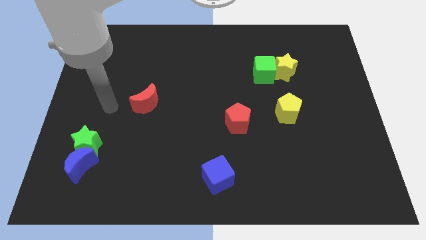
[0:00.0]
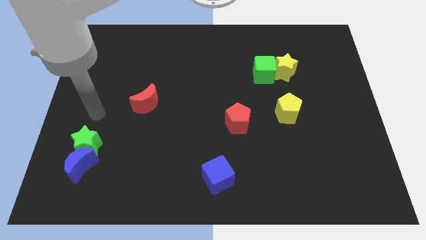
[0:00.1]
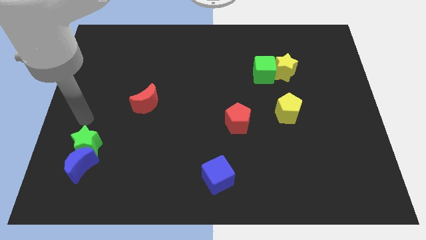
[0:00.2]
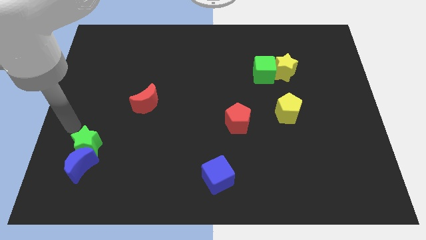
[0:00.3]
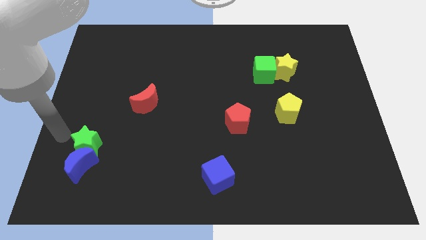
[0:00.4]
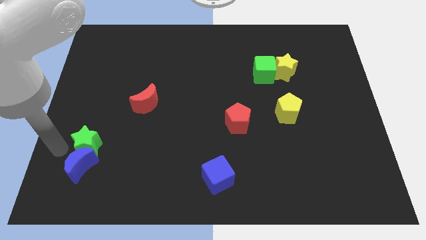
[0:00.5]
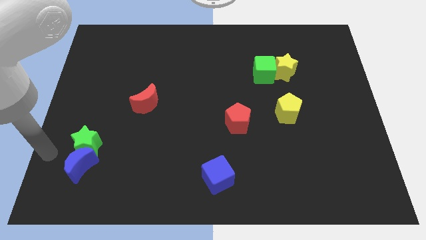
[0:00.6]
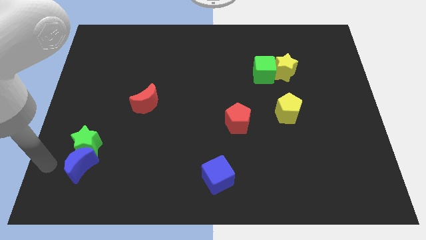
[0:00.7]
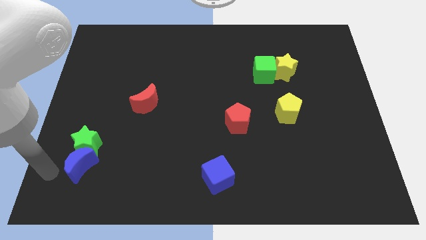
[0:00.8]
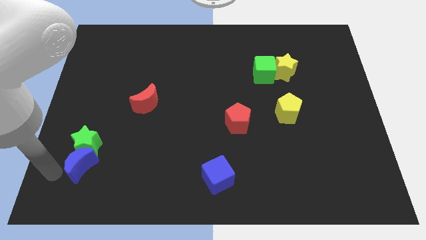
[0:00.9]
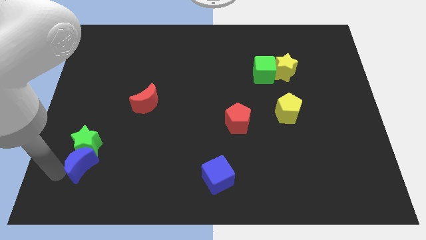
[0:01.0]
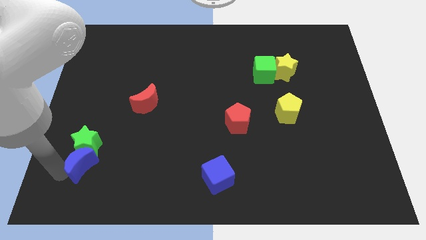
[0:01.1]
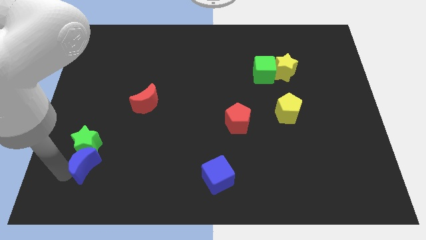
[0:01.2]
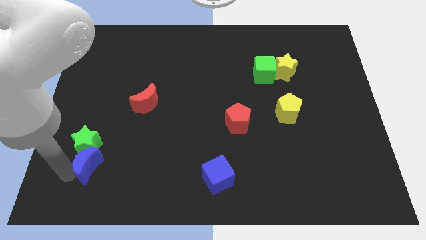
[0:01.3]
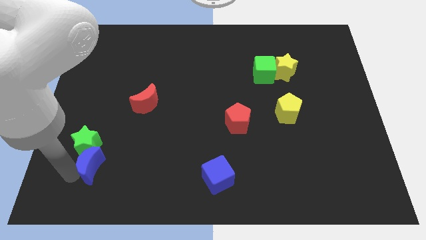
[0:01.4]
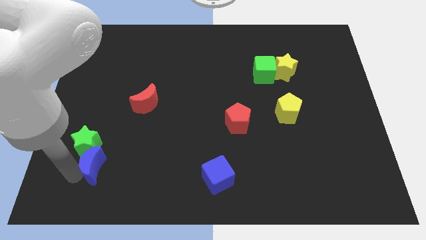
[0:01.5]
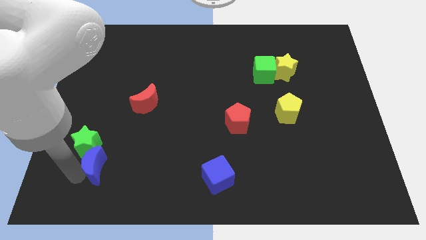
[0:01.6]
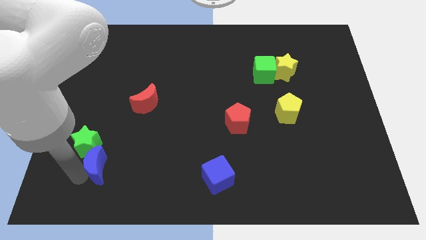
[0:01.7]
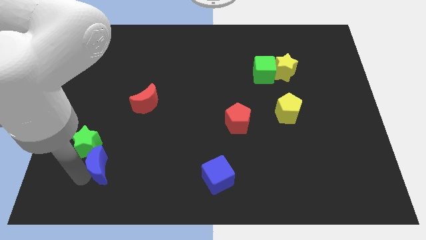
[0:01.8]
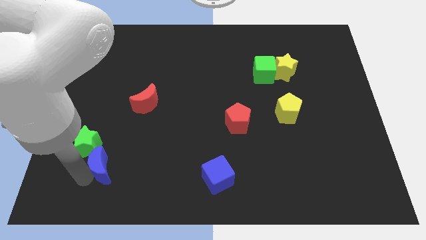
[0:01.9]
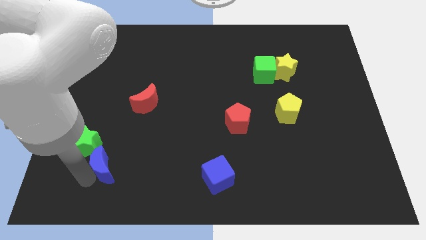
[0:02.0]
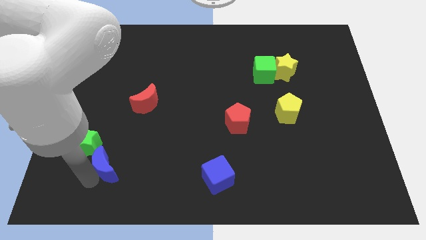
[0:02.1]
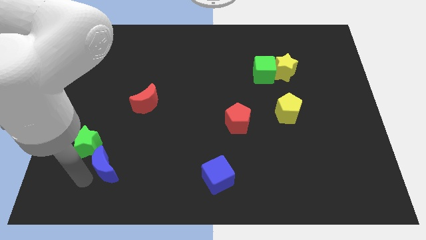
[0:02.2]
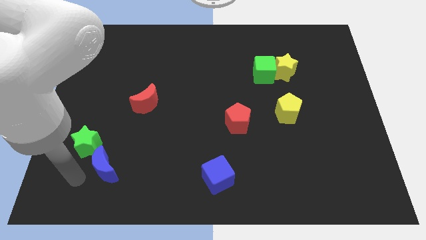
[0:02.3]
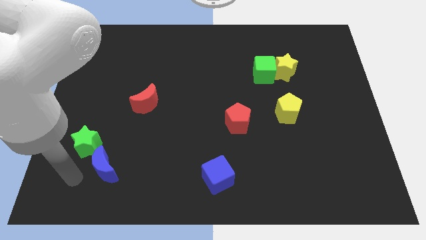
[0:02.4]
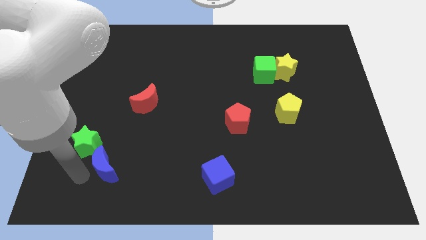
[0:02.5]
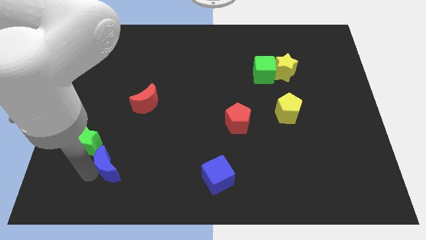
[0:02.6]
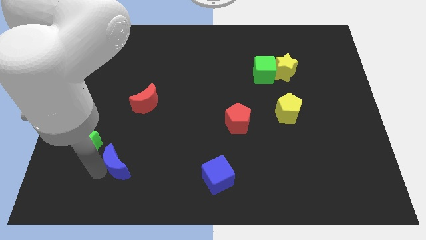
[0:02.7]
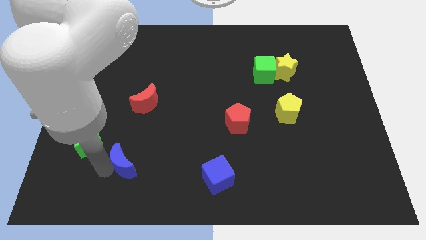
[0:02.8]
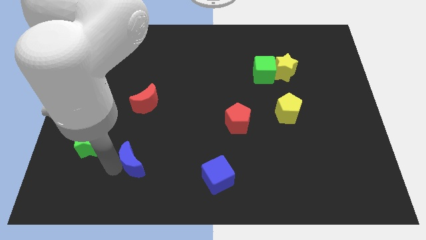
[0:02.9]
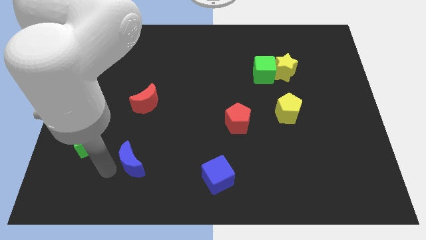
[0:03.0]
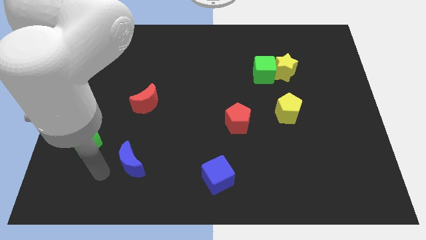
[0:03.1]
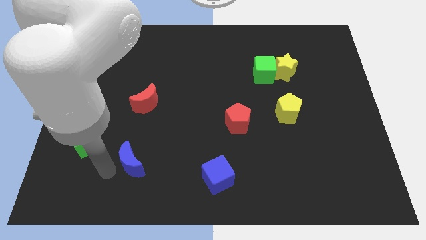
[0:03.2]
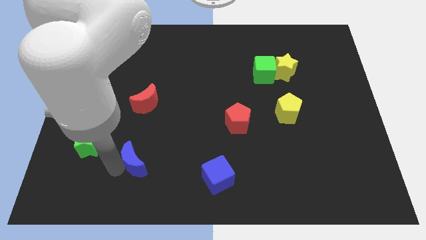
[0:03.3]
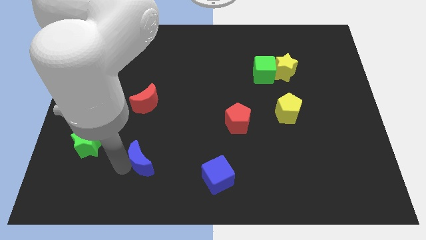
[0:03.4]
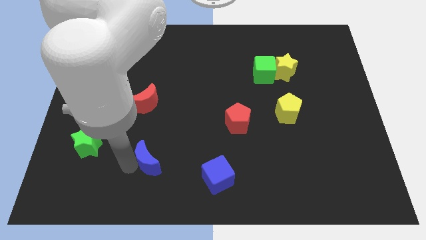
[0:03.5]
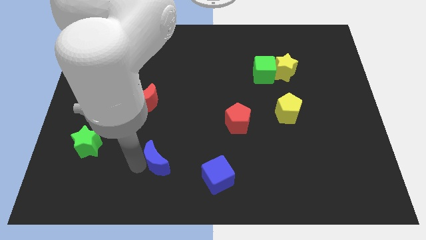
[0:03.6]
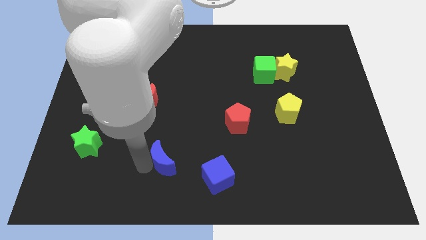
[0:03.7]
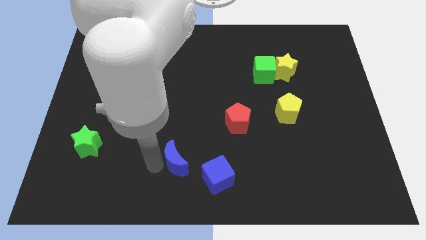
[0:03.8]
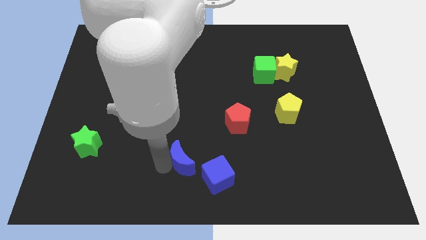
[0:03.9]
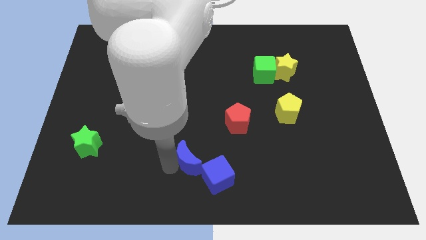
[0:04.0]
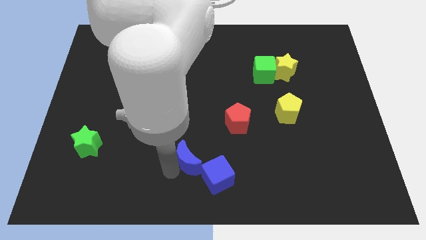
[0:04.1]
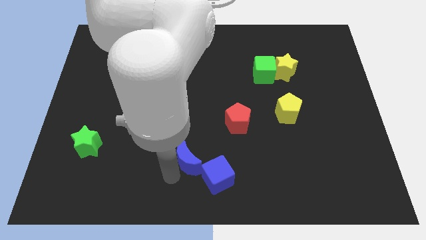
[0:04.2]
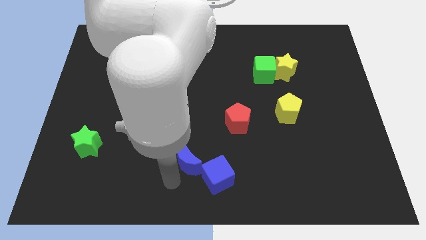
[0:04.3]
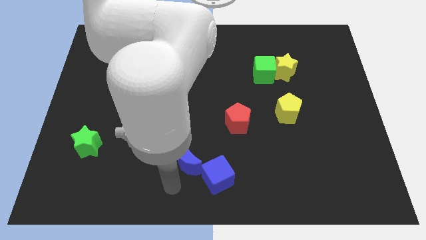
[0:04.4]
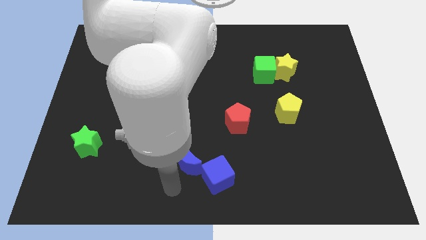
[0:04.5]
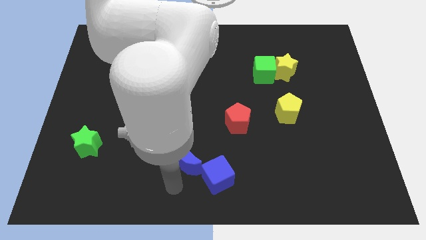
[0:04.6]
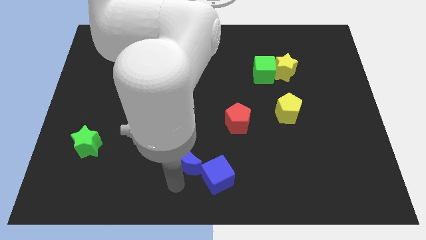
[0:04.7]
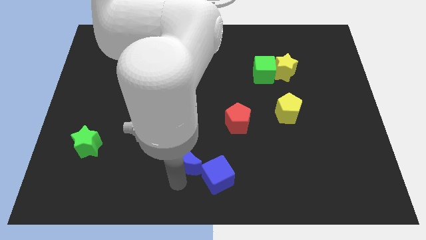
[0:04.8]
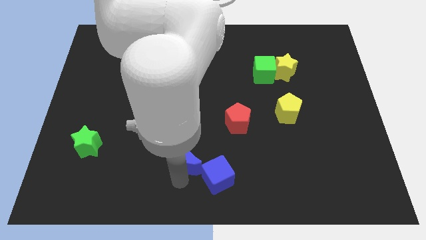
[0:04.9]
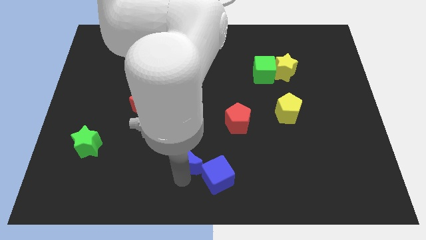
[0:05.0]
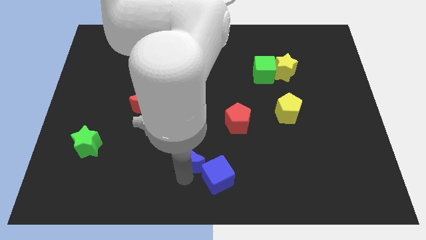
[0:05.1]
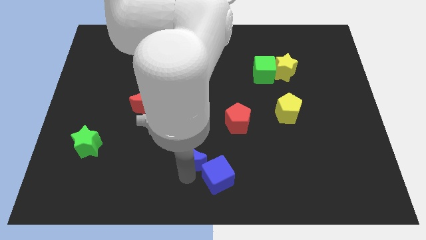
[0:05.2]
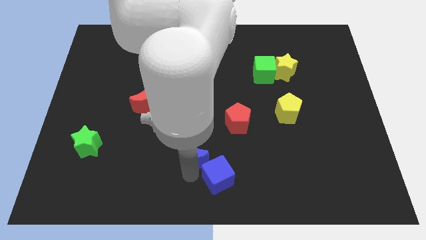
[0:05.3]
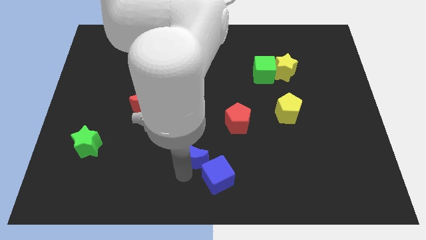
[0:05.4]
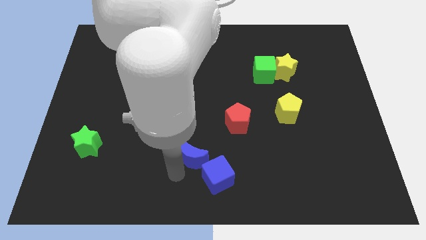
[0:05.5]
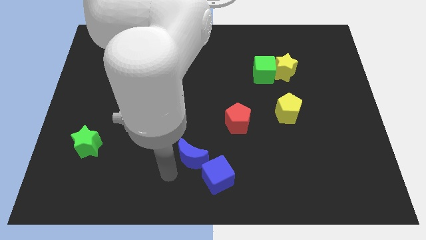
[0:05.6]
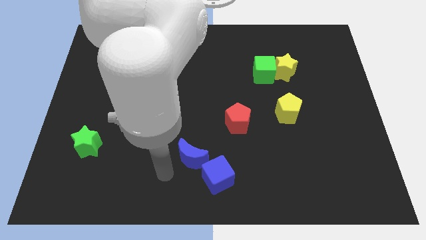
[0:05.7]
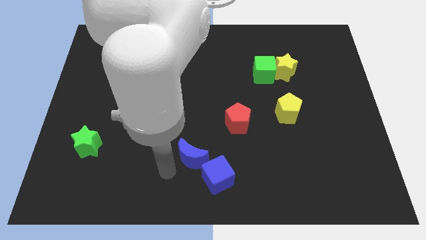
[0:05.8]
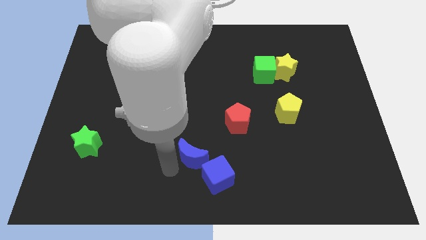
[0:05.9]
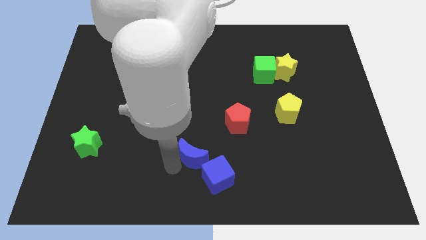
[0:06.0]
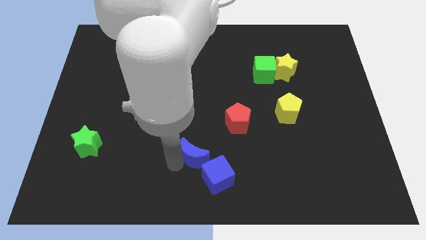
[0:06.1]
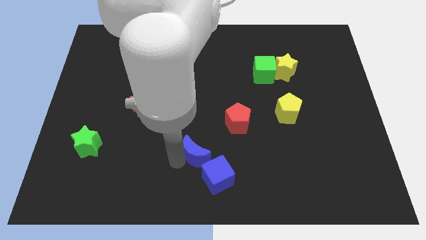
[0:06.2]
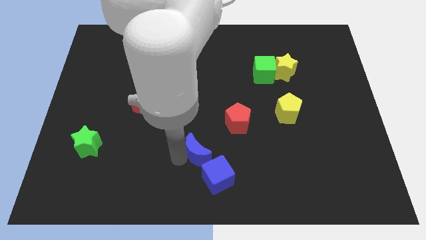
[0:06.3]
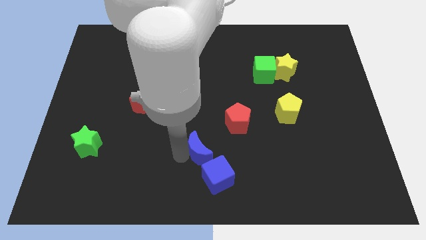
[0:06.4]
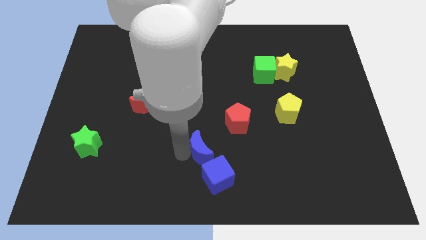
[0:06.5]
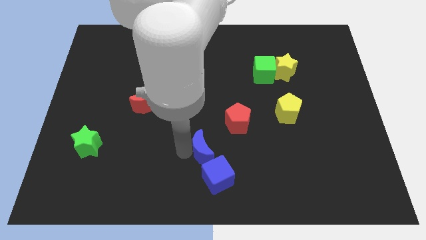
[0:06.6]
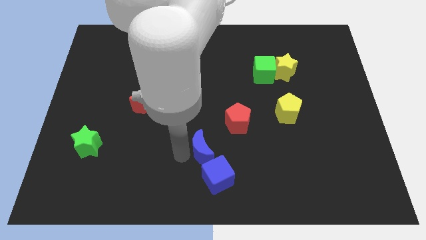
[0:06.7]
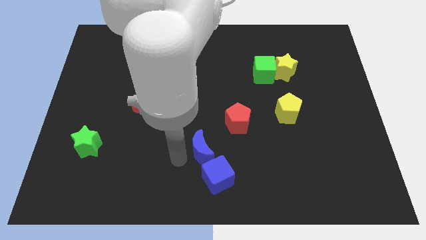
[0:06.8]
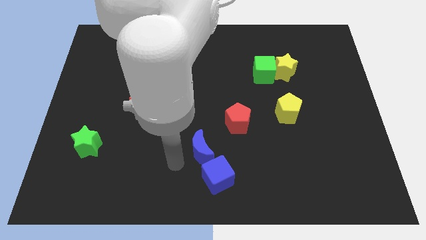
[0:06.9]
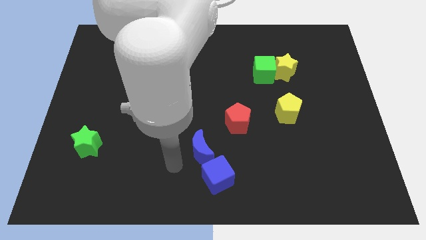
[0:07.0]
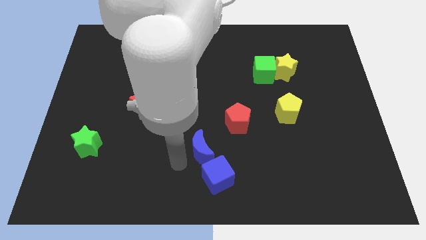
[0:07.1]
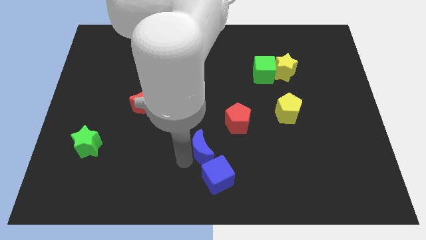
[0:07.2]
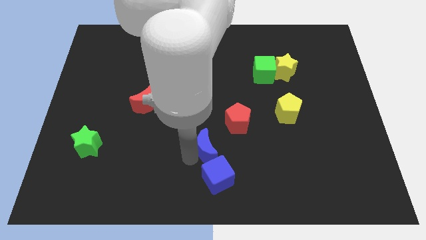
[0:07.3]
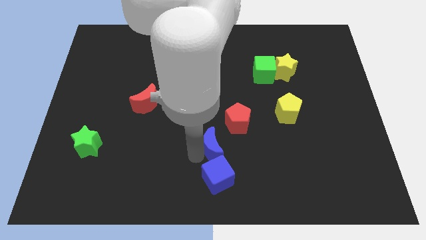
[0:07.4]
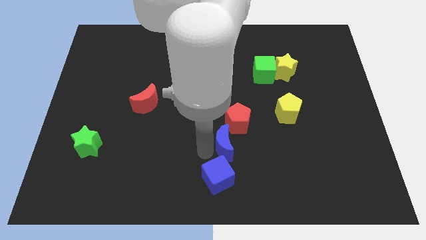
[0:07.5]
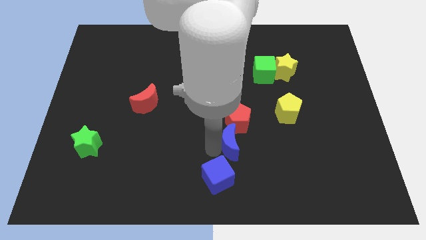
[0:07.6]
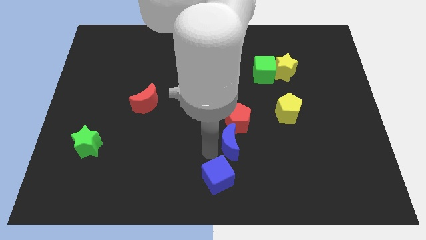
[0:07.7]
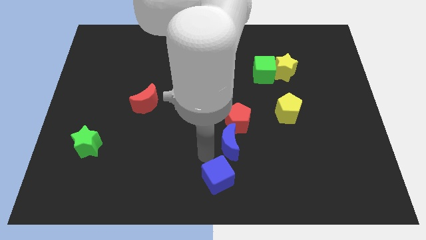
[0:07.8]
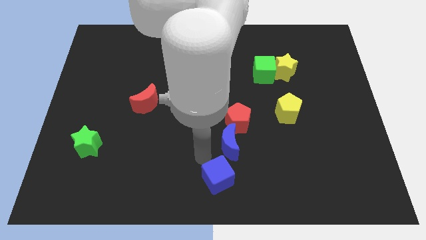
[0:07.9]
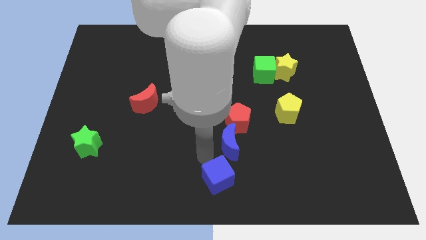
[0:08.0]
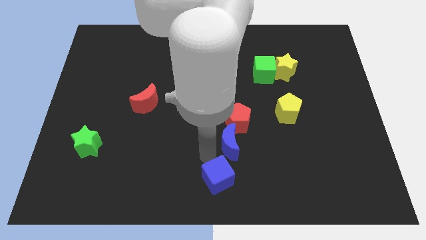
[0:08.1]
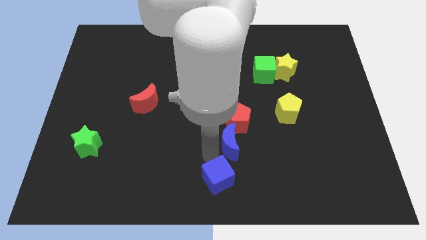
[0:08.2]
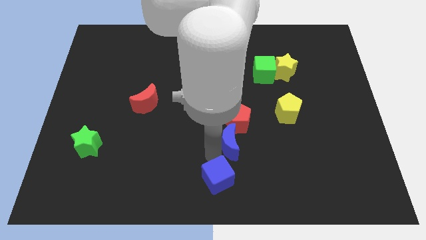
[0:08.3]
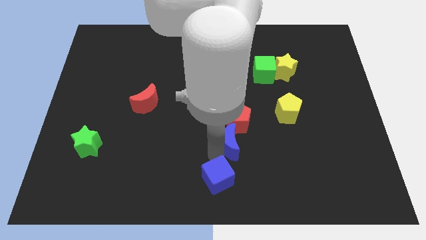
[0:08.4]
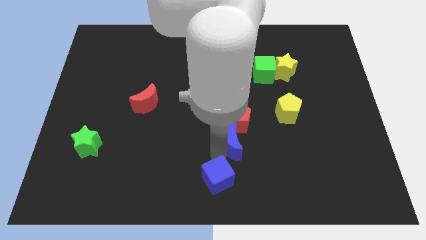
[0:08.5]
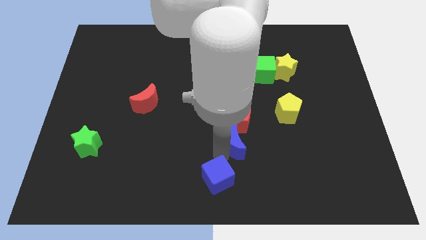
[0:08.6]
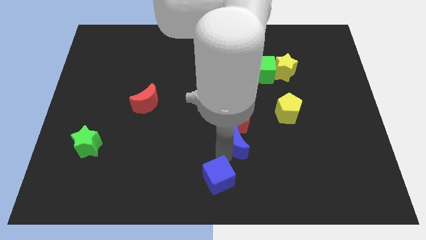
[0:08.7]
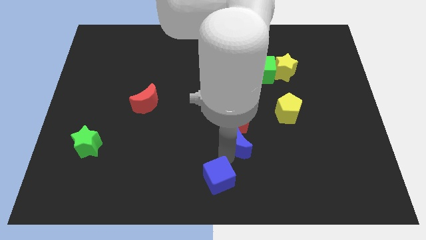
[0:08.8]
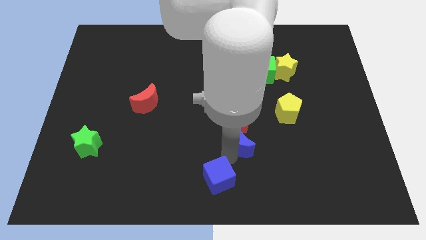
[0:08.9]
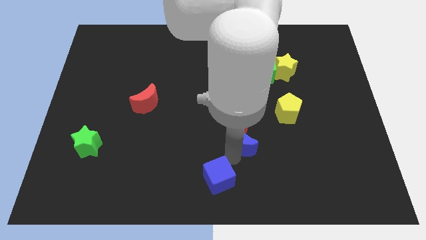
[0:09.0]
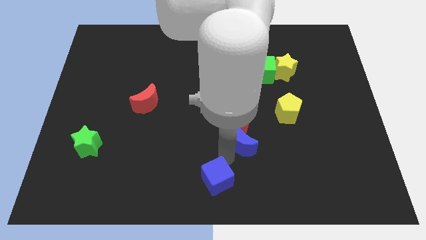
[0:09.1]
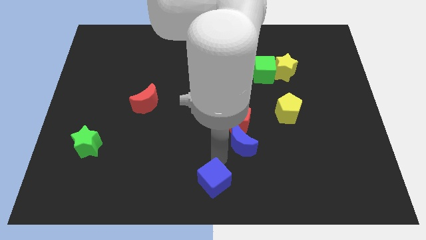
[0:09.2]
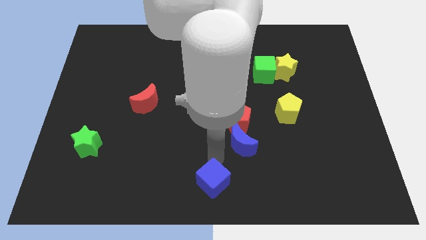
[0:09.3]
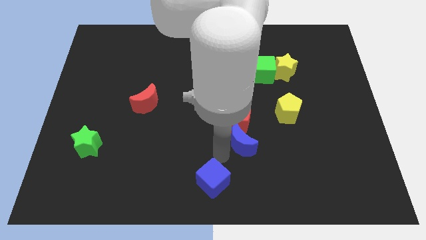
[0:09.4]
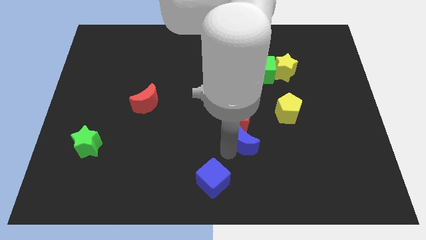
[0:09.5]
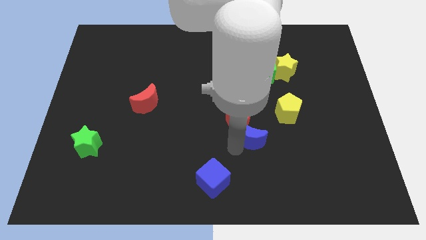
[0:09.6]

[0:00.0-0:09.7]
put the blue moon diagonally down and to the left of the yellow pentagon
